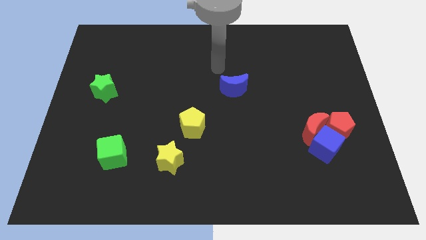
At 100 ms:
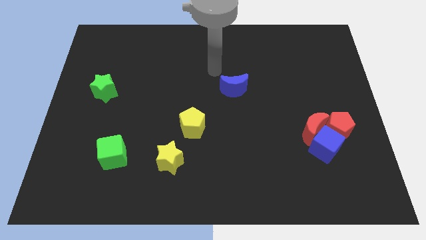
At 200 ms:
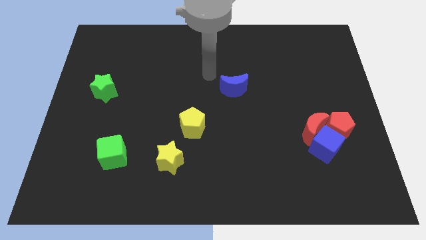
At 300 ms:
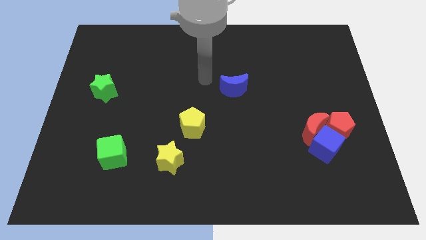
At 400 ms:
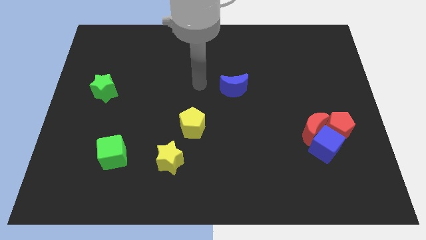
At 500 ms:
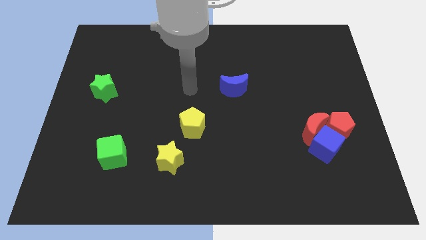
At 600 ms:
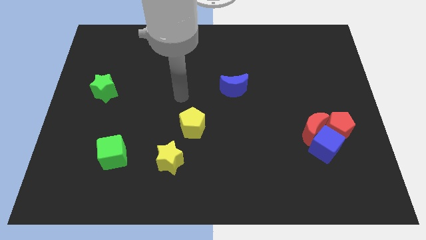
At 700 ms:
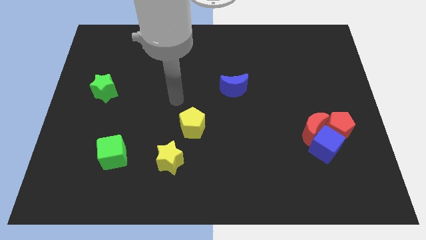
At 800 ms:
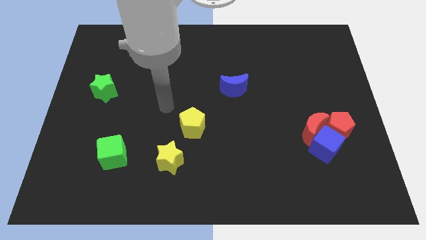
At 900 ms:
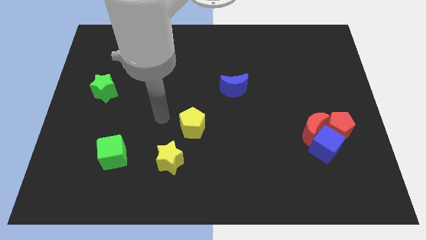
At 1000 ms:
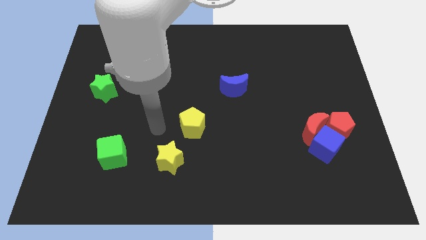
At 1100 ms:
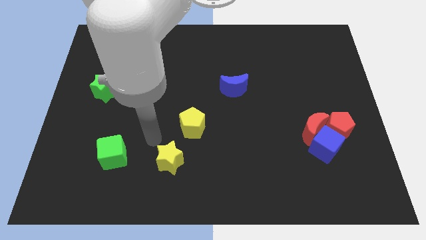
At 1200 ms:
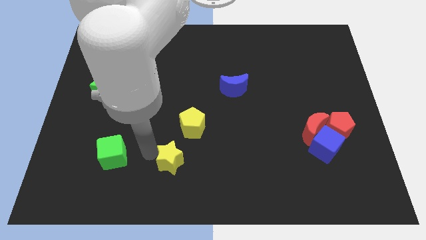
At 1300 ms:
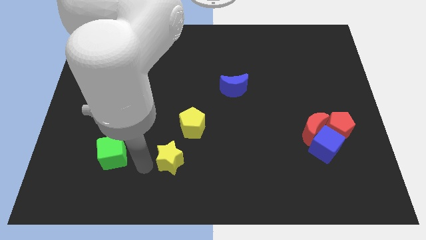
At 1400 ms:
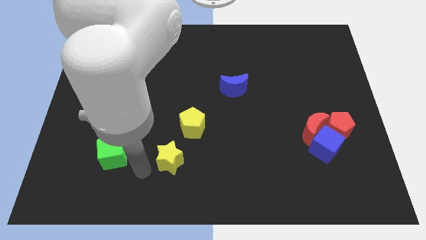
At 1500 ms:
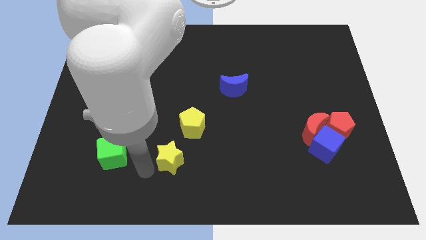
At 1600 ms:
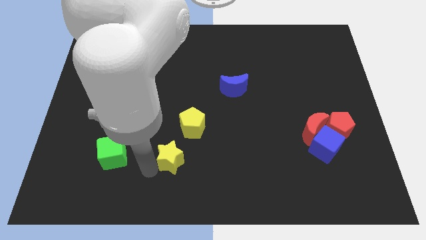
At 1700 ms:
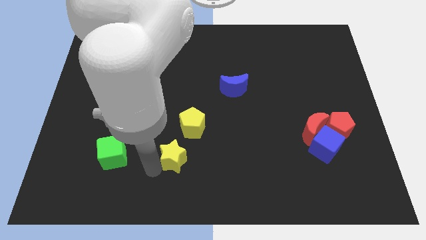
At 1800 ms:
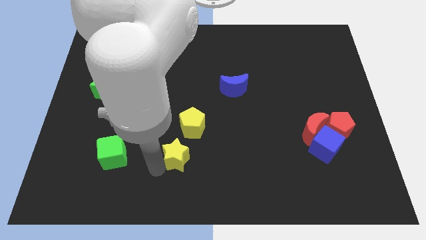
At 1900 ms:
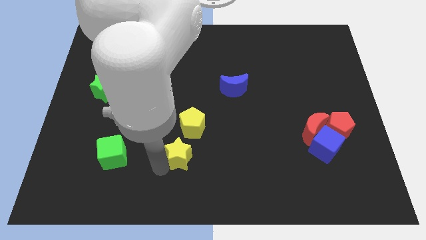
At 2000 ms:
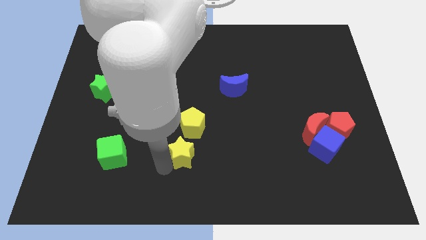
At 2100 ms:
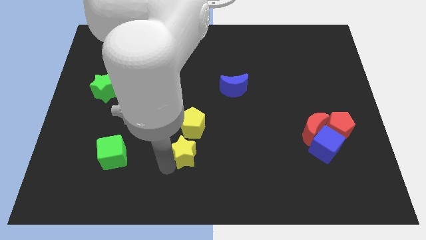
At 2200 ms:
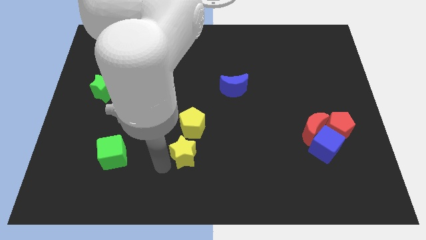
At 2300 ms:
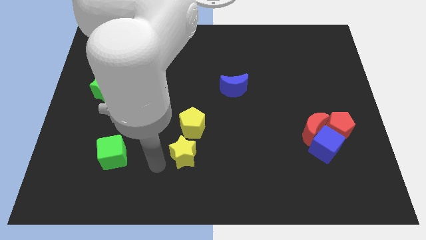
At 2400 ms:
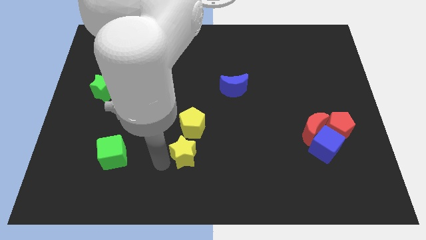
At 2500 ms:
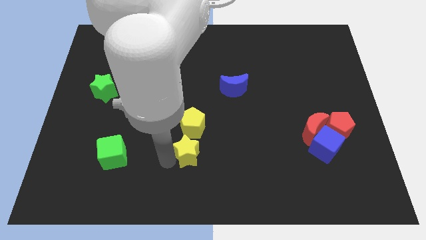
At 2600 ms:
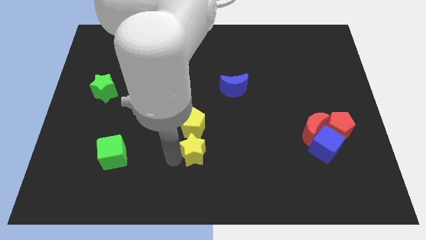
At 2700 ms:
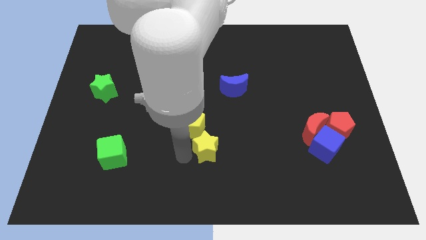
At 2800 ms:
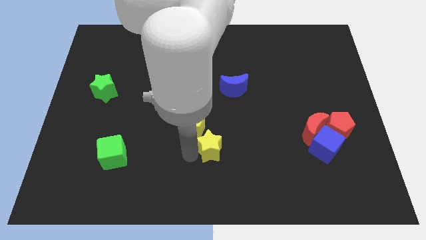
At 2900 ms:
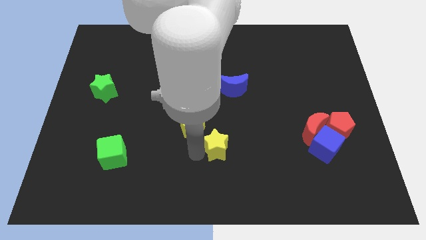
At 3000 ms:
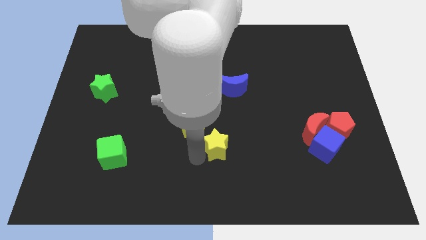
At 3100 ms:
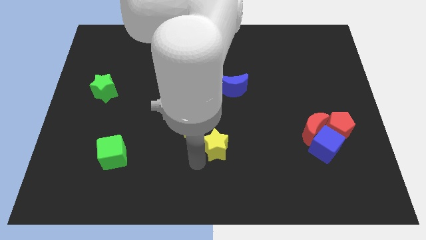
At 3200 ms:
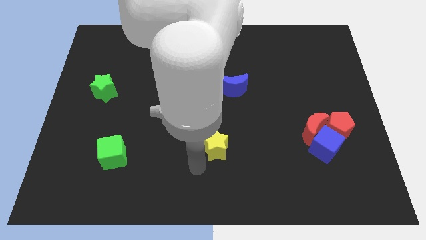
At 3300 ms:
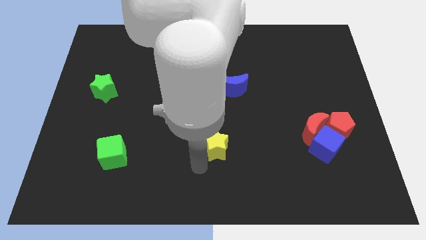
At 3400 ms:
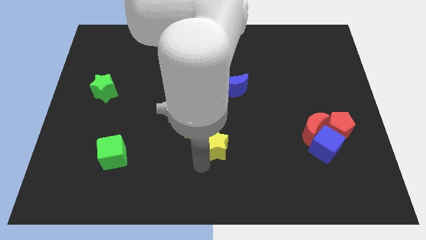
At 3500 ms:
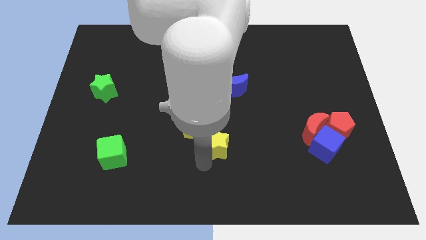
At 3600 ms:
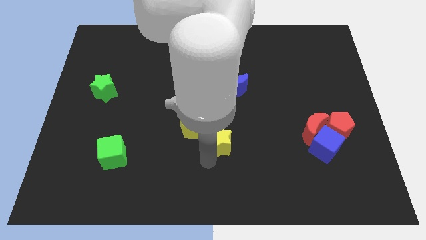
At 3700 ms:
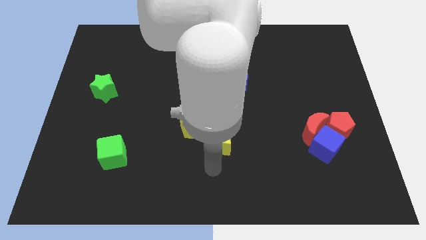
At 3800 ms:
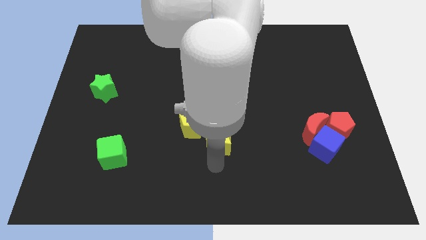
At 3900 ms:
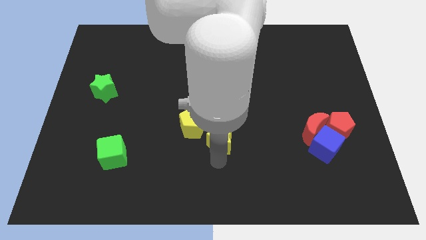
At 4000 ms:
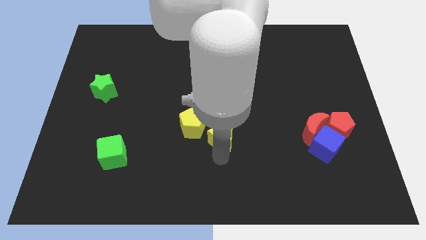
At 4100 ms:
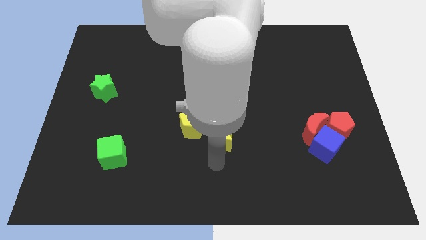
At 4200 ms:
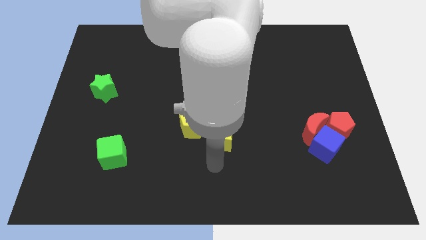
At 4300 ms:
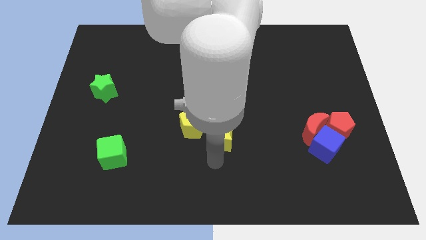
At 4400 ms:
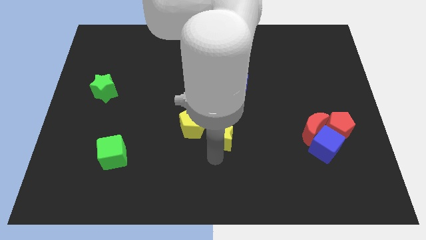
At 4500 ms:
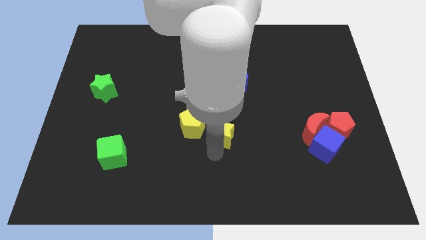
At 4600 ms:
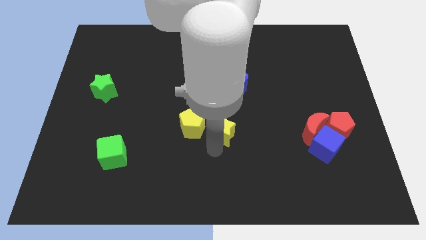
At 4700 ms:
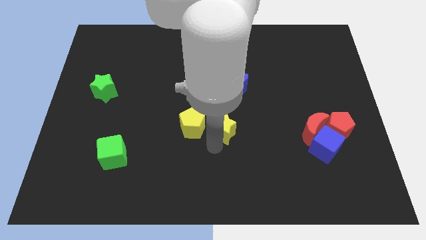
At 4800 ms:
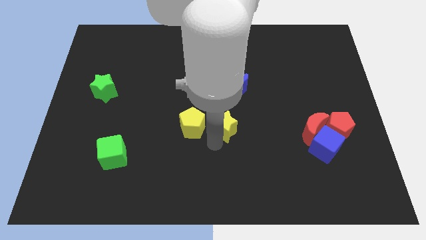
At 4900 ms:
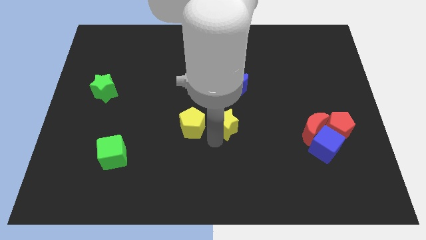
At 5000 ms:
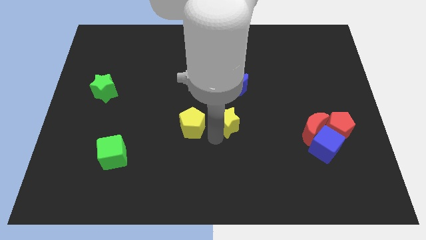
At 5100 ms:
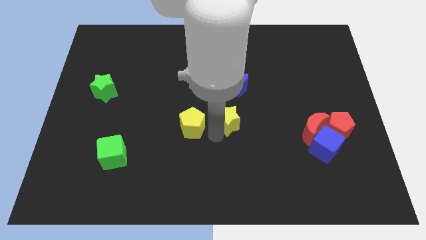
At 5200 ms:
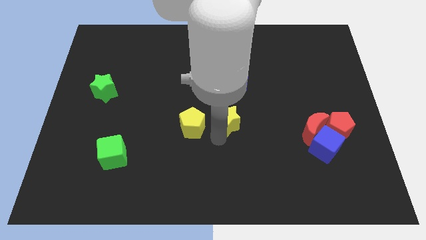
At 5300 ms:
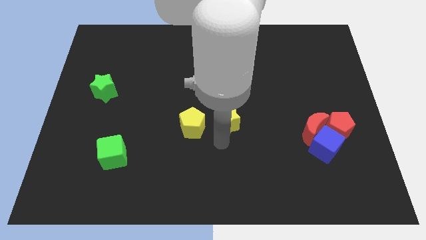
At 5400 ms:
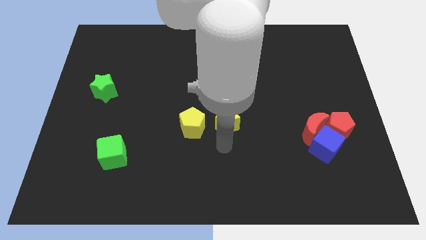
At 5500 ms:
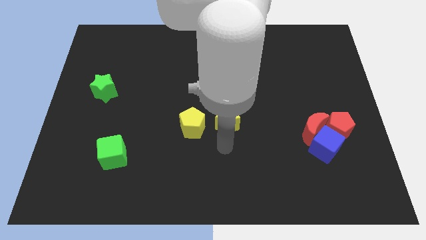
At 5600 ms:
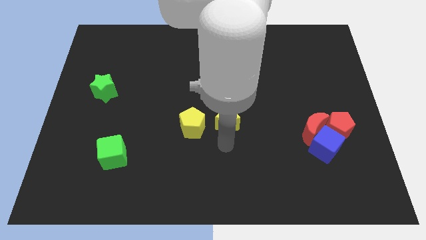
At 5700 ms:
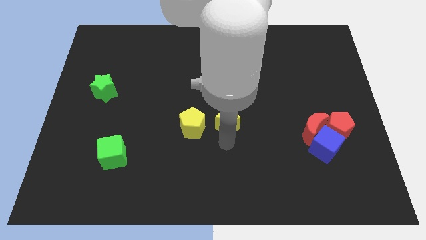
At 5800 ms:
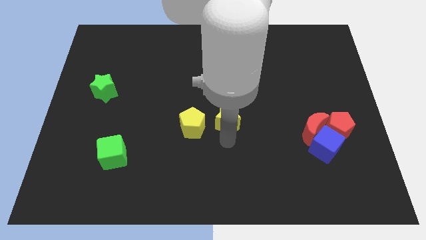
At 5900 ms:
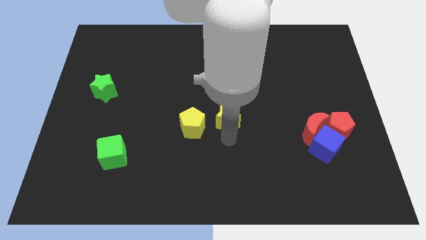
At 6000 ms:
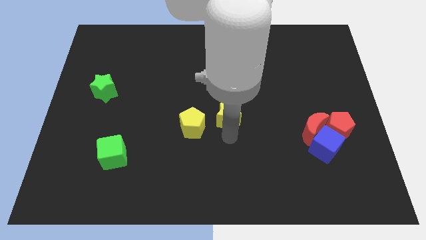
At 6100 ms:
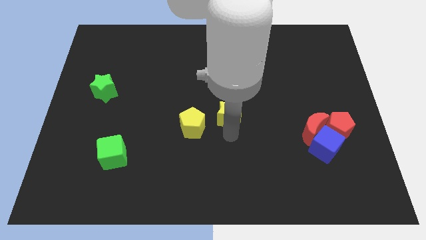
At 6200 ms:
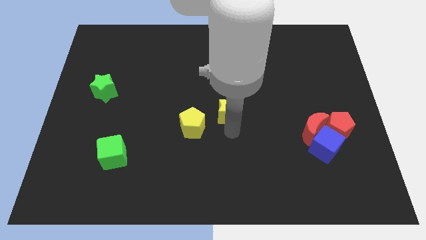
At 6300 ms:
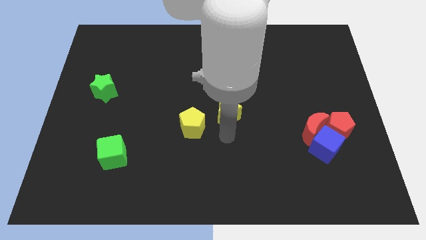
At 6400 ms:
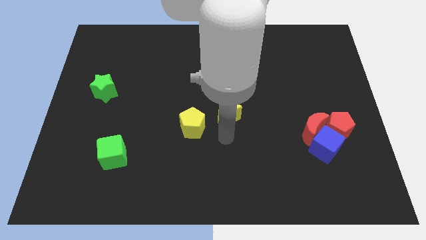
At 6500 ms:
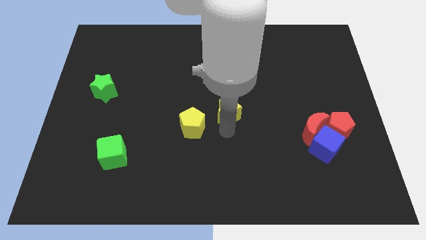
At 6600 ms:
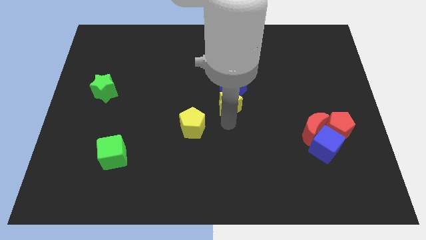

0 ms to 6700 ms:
put the yellow star close to the blue moon
